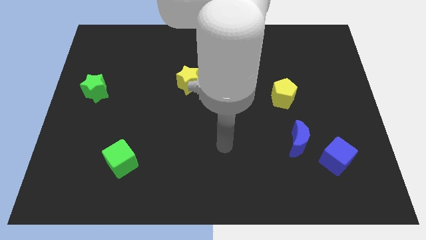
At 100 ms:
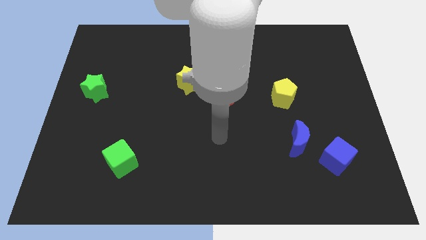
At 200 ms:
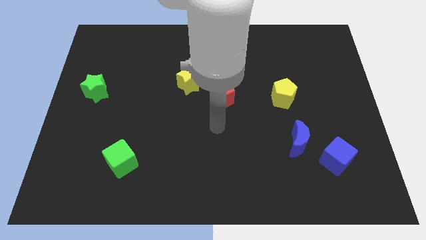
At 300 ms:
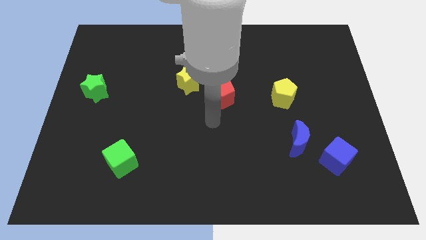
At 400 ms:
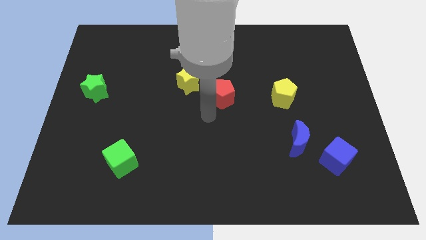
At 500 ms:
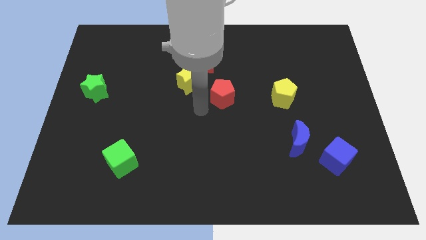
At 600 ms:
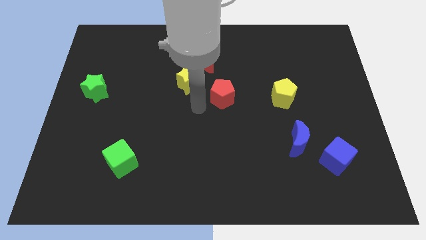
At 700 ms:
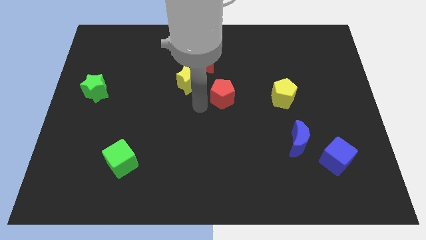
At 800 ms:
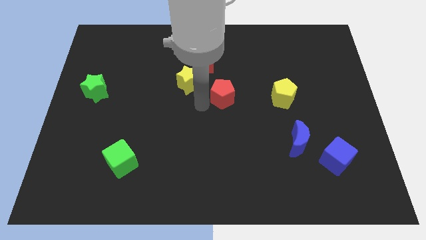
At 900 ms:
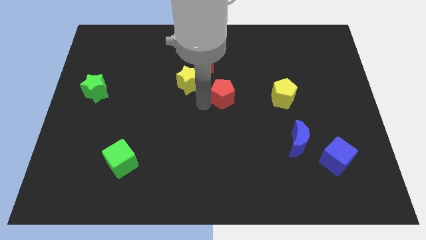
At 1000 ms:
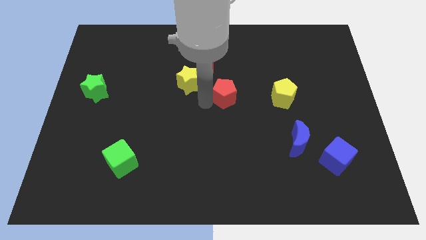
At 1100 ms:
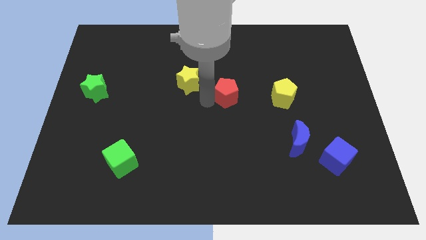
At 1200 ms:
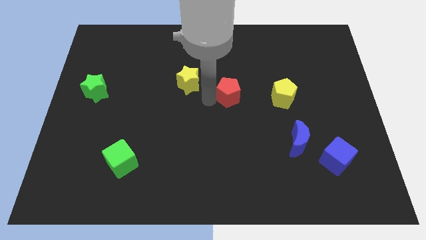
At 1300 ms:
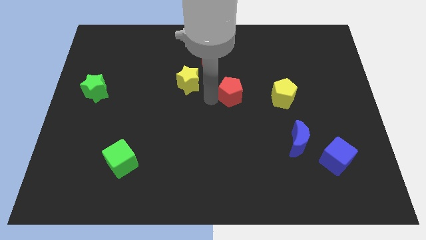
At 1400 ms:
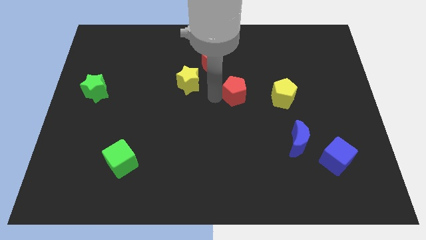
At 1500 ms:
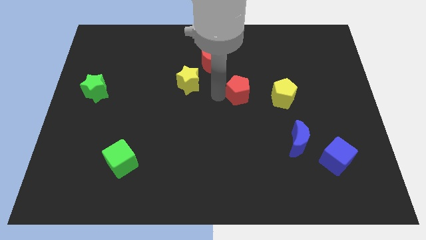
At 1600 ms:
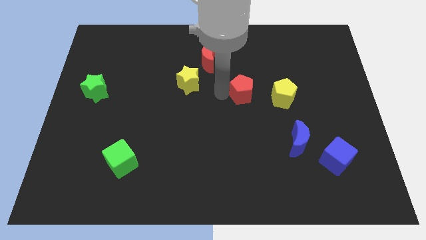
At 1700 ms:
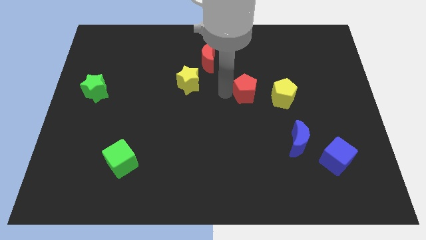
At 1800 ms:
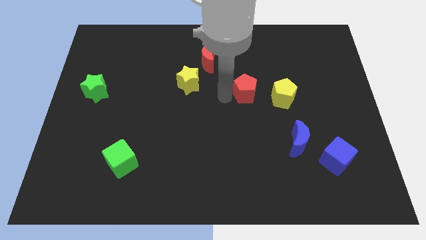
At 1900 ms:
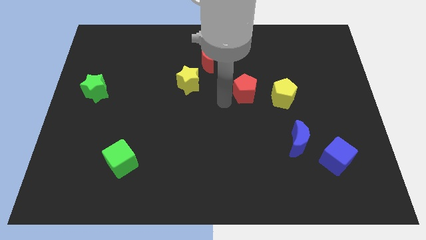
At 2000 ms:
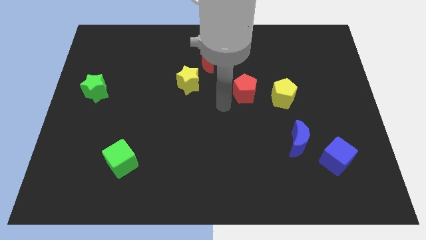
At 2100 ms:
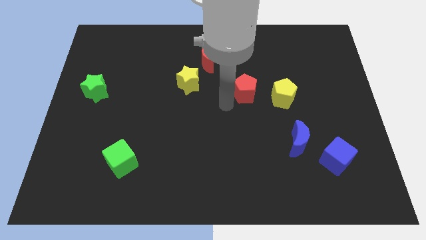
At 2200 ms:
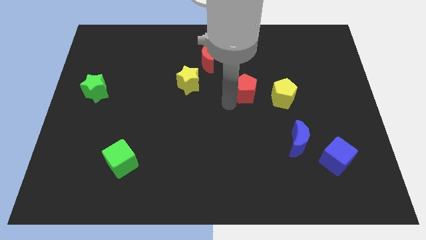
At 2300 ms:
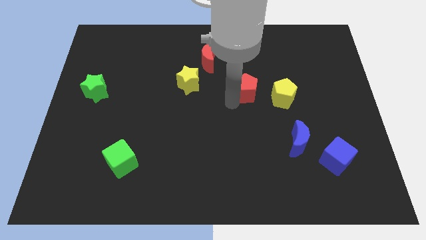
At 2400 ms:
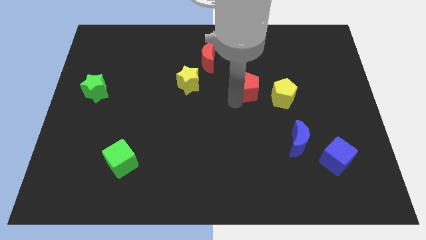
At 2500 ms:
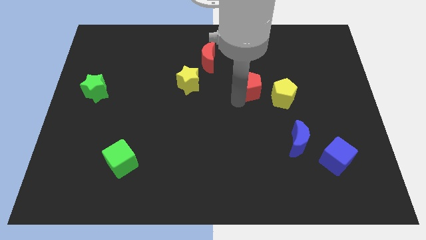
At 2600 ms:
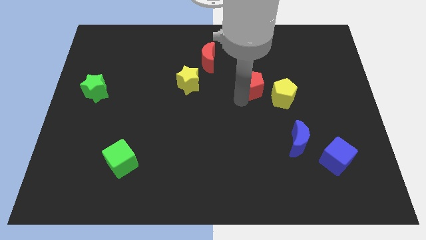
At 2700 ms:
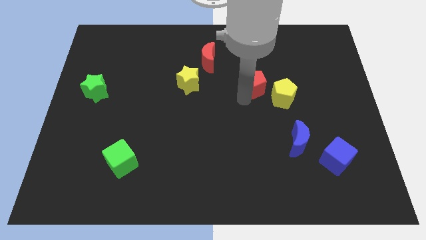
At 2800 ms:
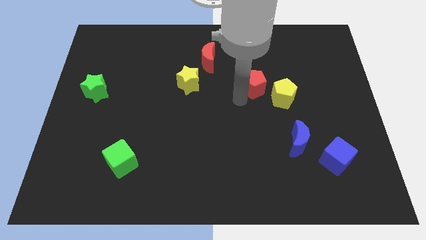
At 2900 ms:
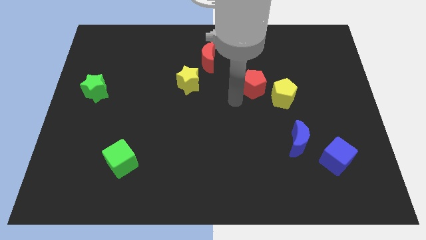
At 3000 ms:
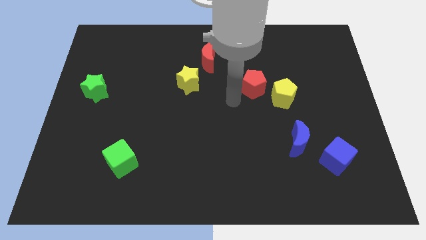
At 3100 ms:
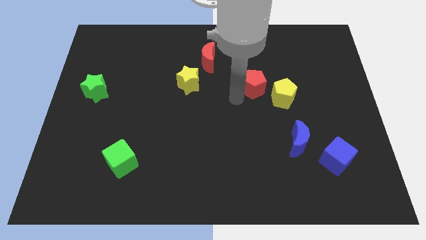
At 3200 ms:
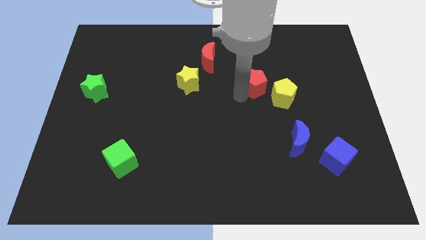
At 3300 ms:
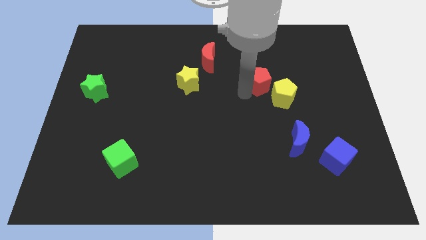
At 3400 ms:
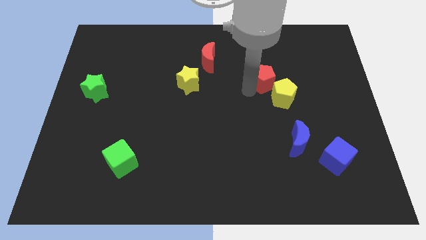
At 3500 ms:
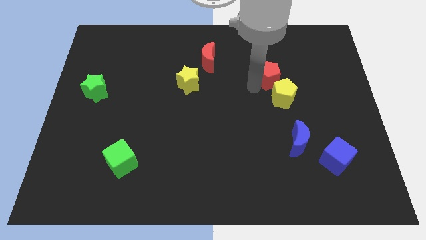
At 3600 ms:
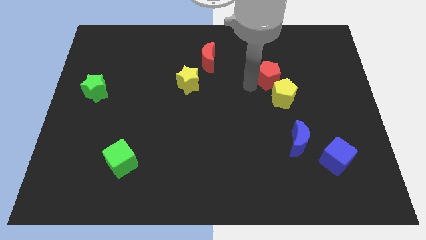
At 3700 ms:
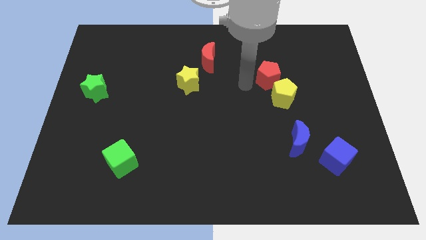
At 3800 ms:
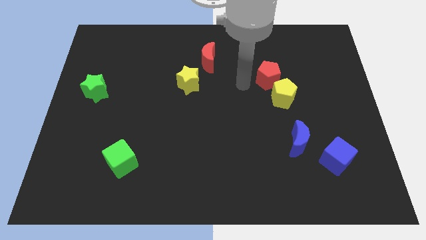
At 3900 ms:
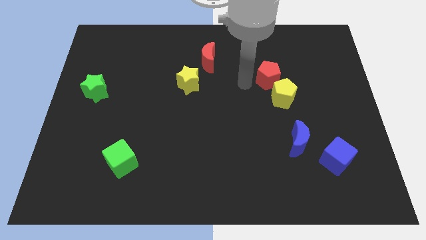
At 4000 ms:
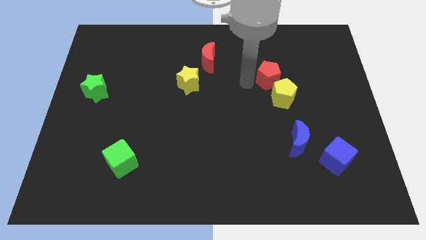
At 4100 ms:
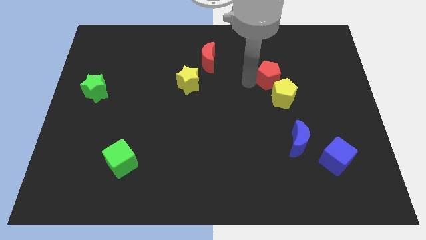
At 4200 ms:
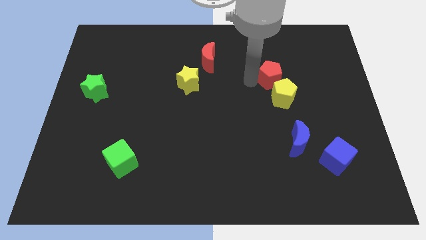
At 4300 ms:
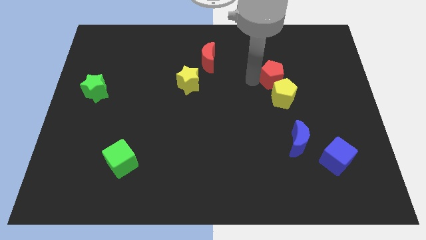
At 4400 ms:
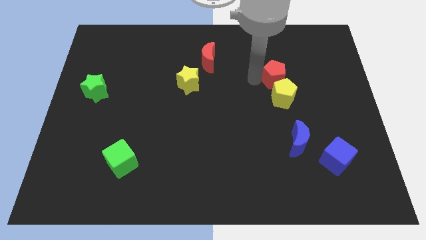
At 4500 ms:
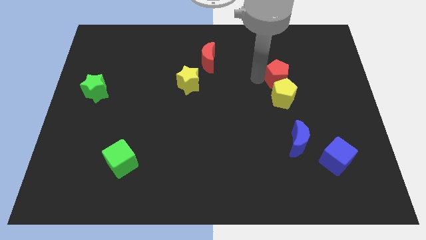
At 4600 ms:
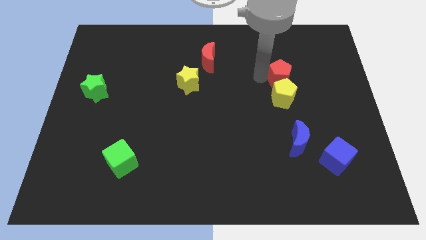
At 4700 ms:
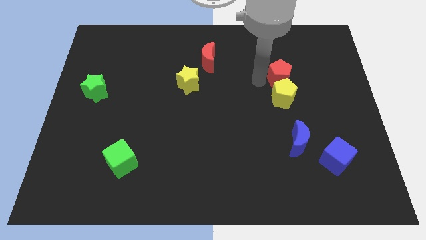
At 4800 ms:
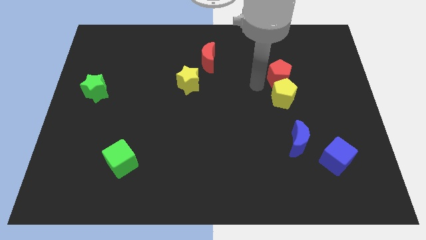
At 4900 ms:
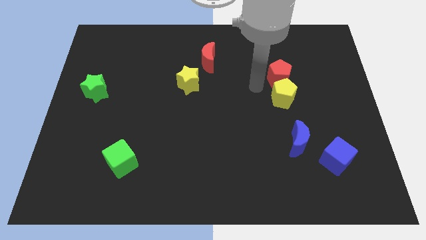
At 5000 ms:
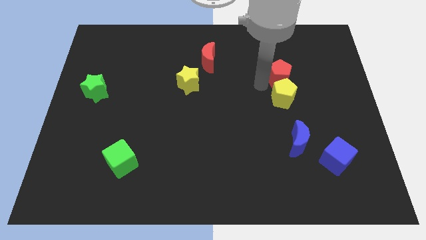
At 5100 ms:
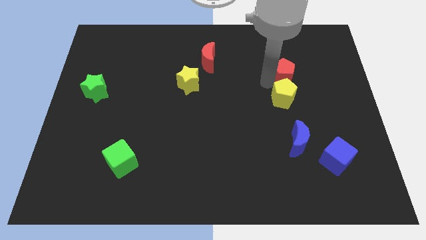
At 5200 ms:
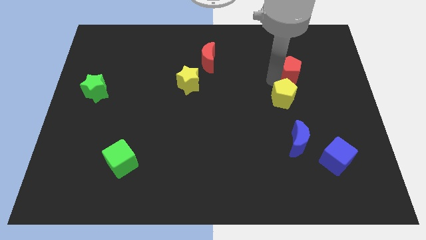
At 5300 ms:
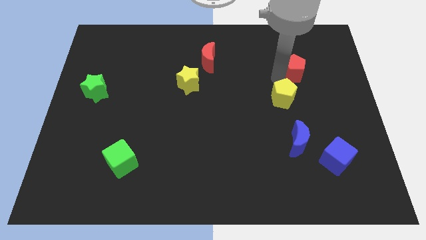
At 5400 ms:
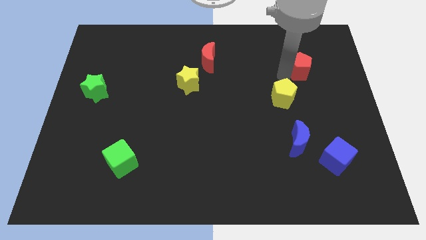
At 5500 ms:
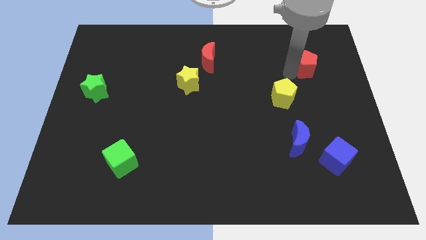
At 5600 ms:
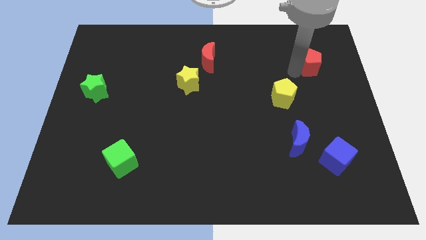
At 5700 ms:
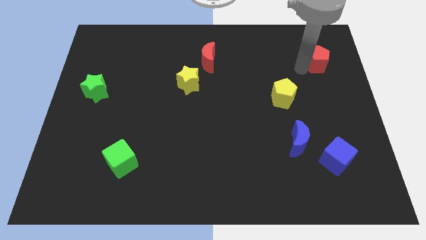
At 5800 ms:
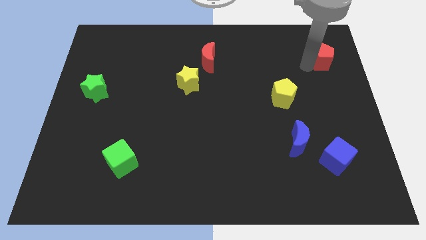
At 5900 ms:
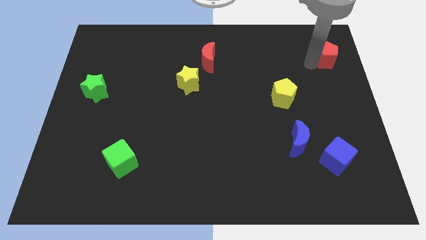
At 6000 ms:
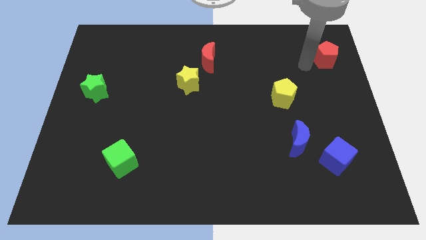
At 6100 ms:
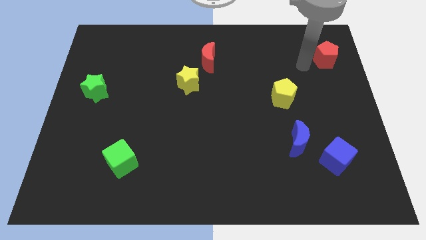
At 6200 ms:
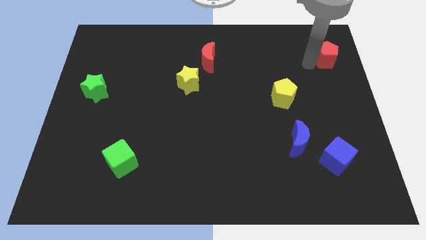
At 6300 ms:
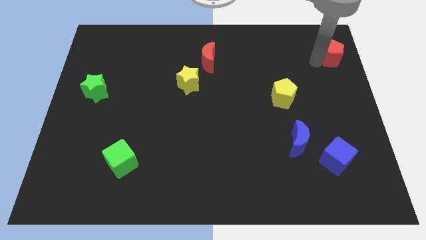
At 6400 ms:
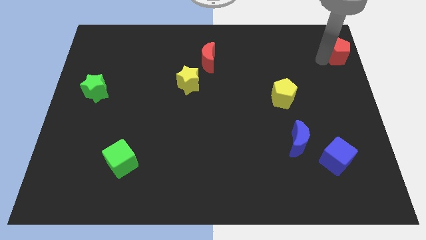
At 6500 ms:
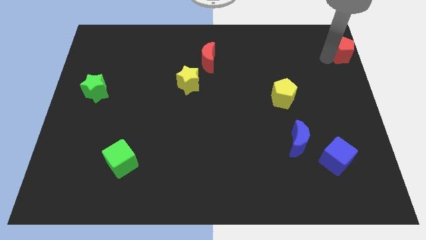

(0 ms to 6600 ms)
slide the red pentagon to the upper right corner
